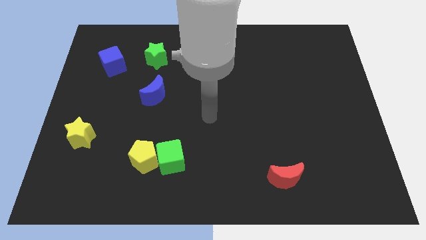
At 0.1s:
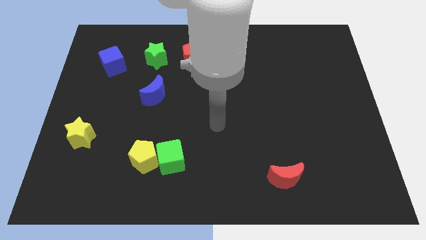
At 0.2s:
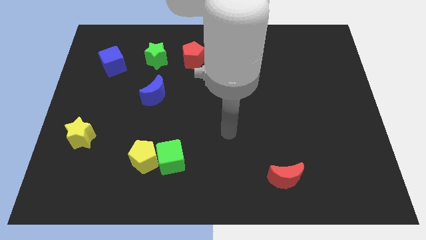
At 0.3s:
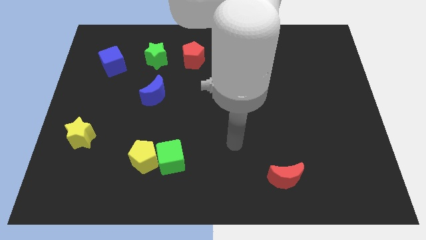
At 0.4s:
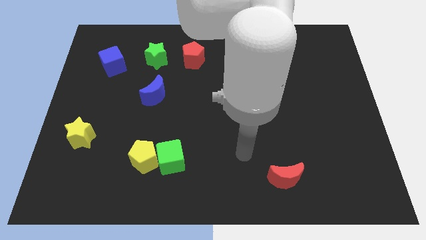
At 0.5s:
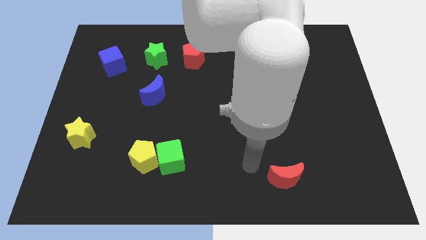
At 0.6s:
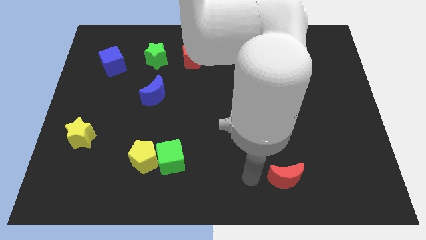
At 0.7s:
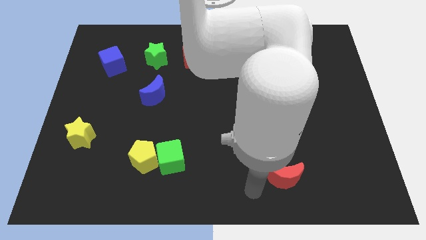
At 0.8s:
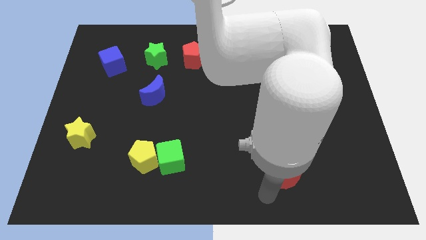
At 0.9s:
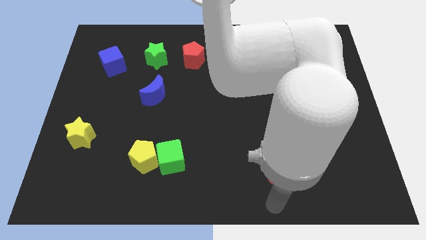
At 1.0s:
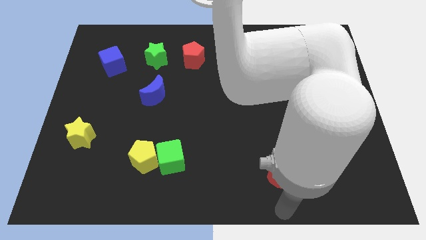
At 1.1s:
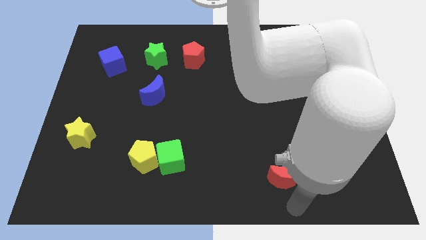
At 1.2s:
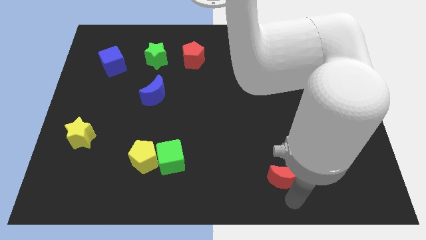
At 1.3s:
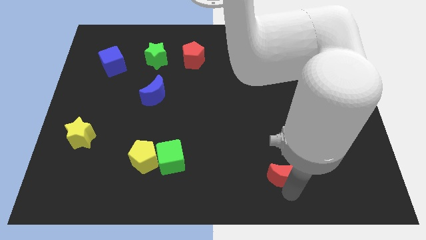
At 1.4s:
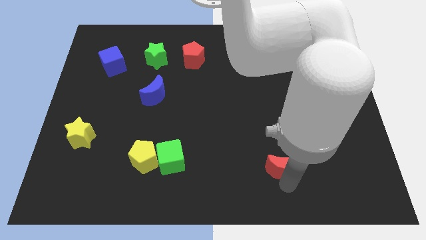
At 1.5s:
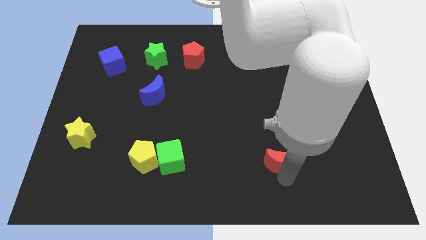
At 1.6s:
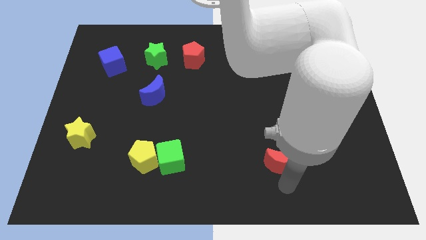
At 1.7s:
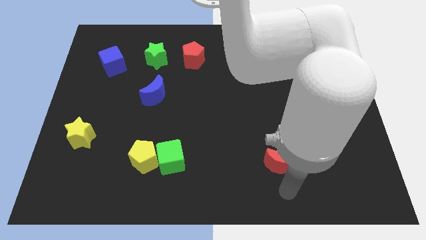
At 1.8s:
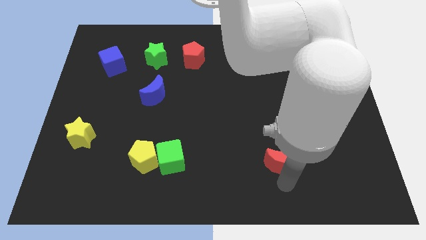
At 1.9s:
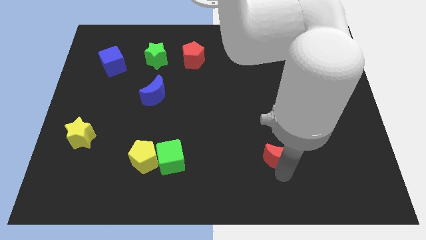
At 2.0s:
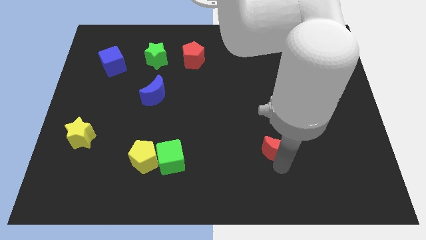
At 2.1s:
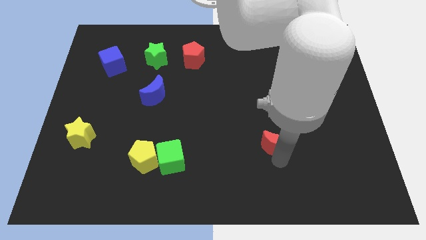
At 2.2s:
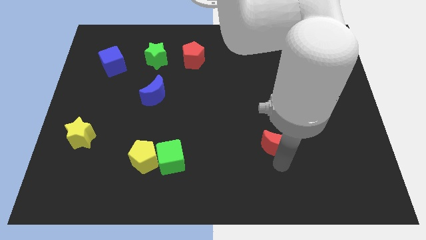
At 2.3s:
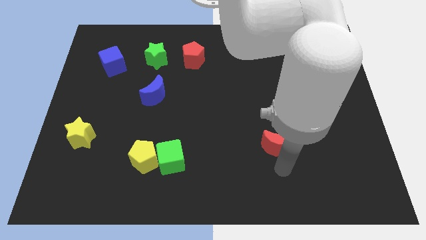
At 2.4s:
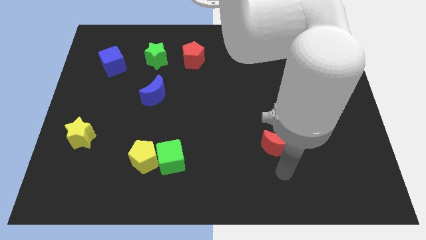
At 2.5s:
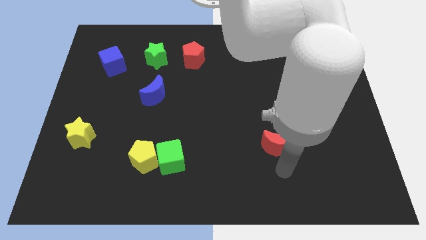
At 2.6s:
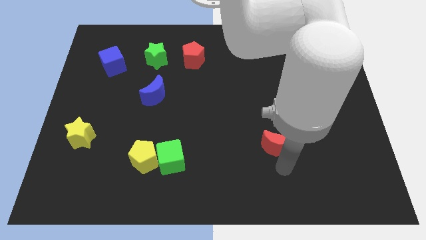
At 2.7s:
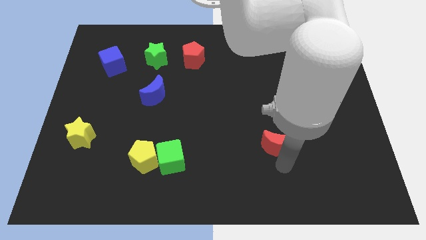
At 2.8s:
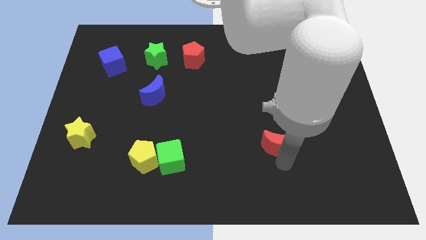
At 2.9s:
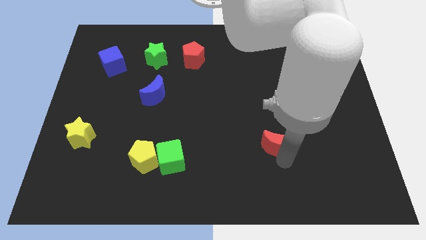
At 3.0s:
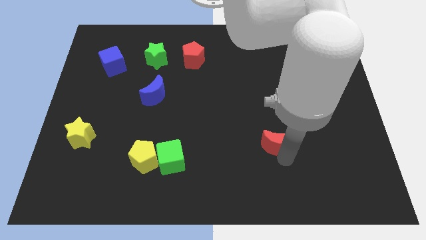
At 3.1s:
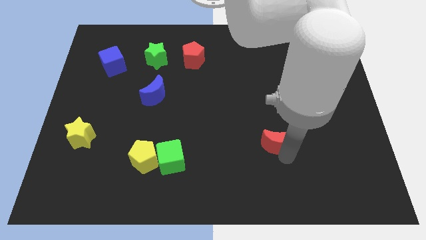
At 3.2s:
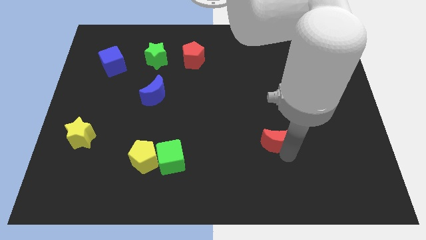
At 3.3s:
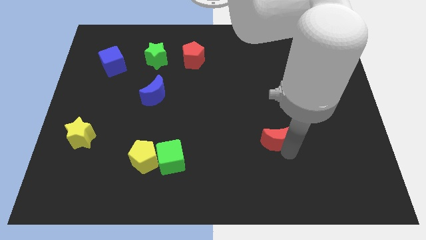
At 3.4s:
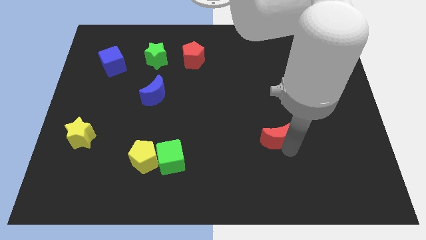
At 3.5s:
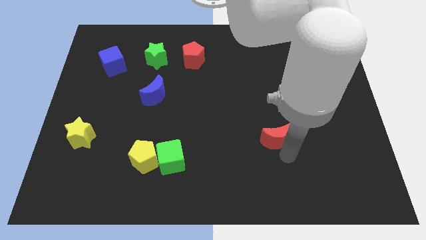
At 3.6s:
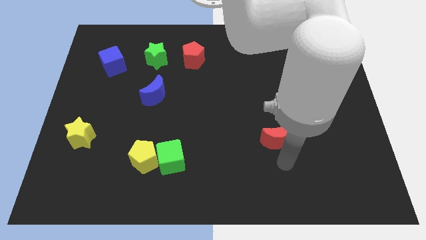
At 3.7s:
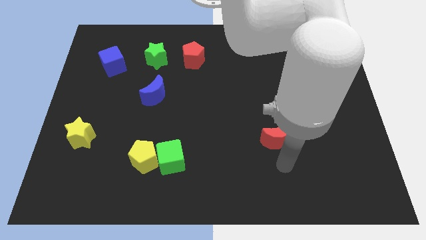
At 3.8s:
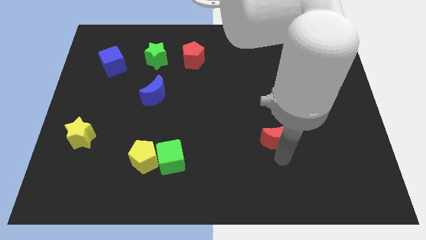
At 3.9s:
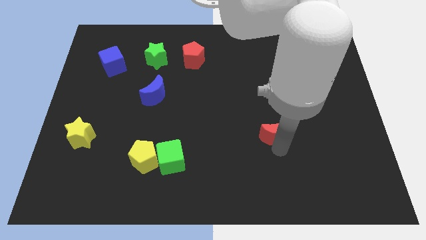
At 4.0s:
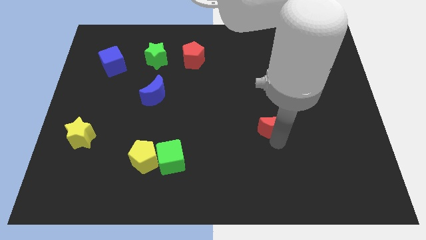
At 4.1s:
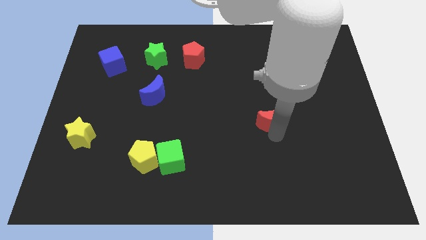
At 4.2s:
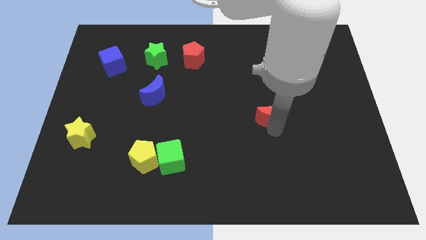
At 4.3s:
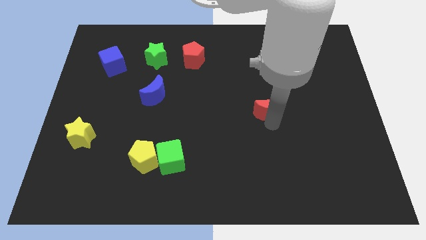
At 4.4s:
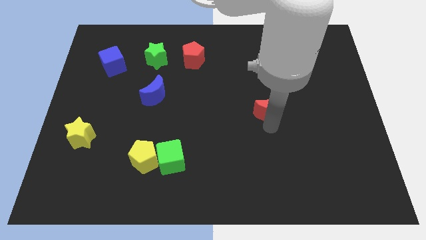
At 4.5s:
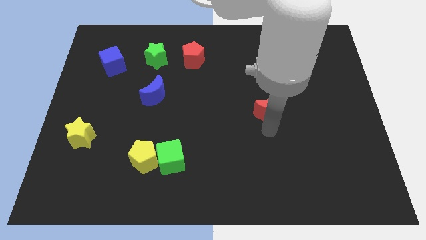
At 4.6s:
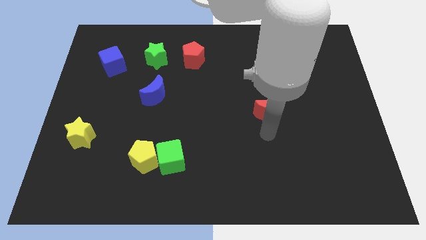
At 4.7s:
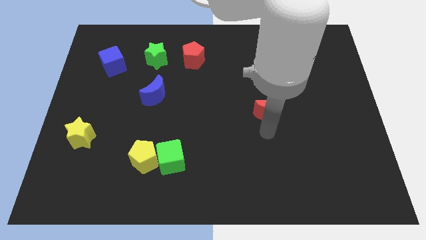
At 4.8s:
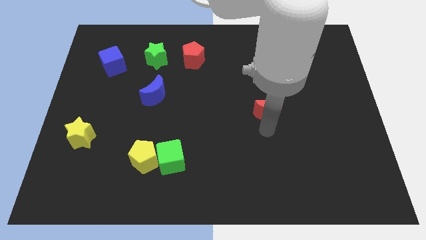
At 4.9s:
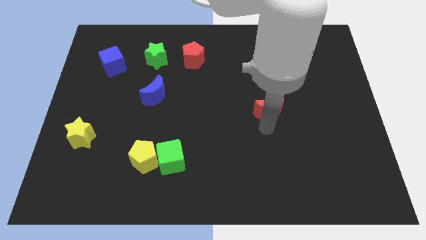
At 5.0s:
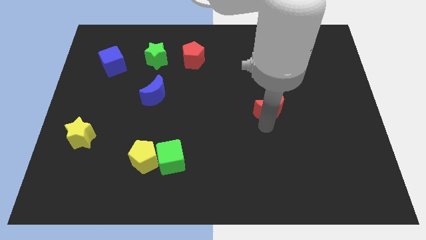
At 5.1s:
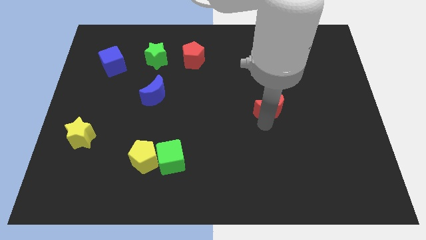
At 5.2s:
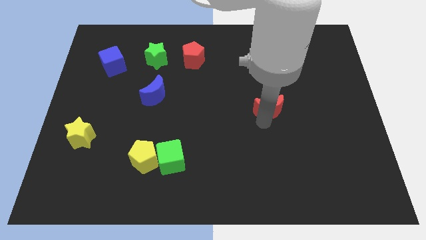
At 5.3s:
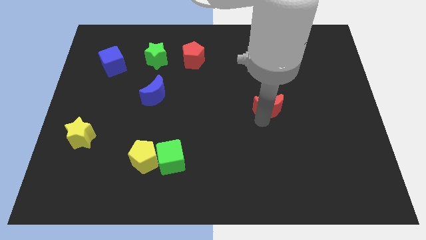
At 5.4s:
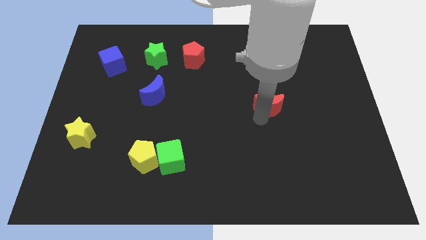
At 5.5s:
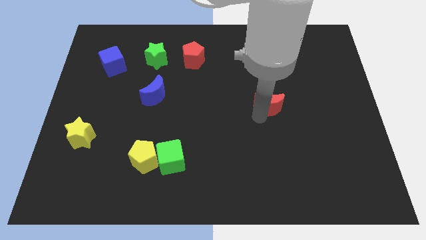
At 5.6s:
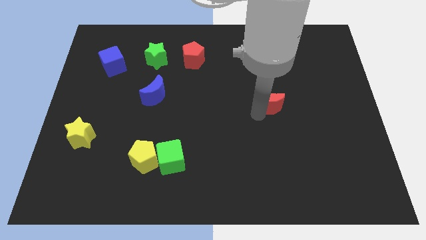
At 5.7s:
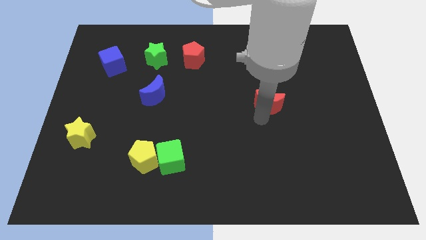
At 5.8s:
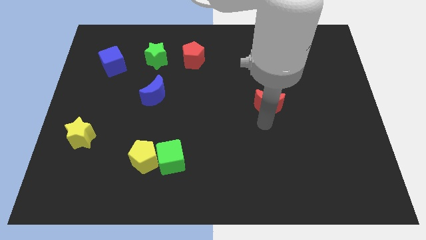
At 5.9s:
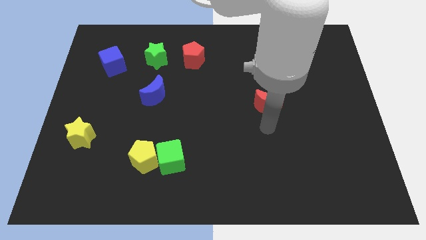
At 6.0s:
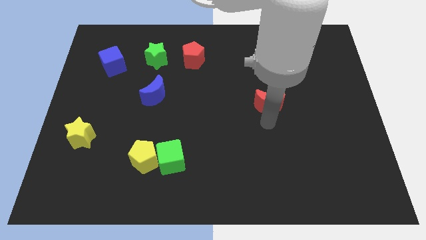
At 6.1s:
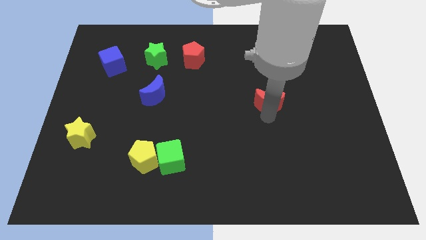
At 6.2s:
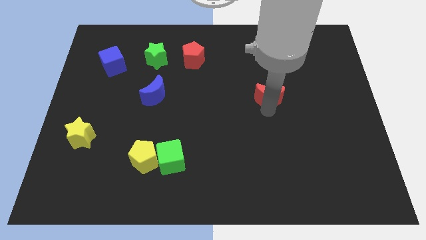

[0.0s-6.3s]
move the red moon up

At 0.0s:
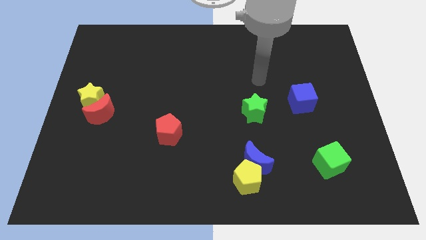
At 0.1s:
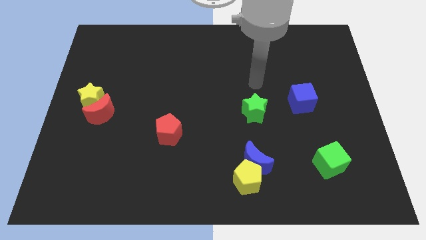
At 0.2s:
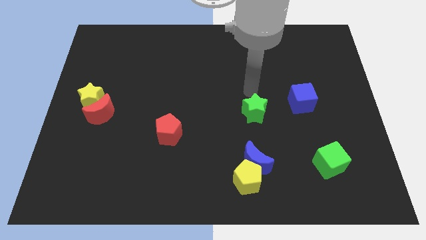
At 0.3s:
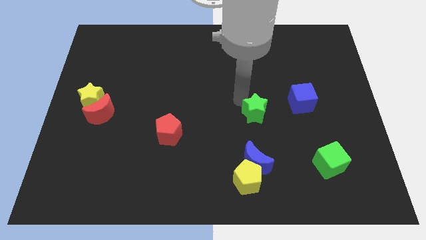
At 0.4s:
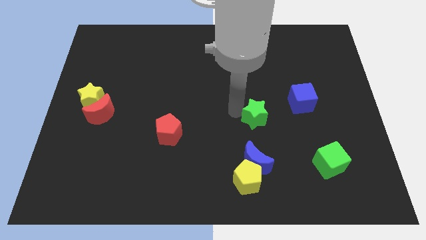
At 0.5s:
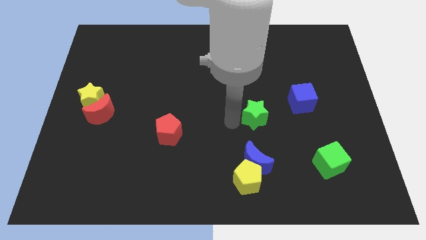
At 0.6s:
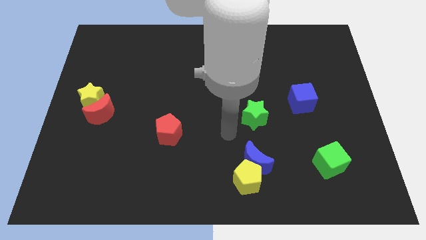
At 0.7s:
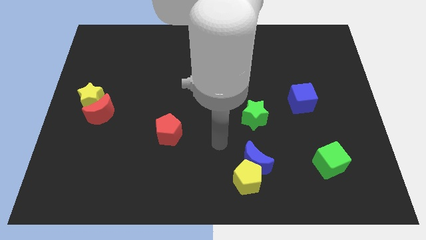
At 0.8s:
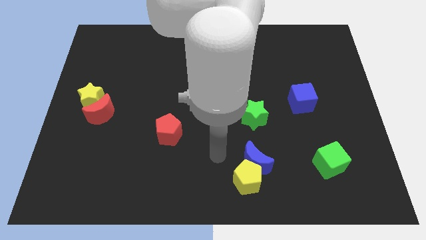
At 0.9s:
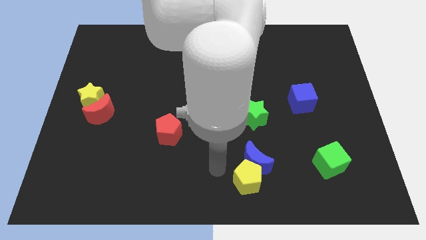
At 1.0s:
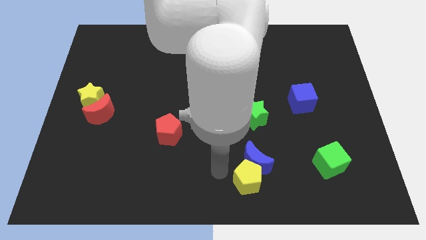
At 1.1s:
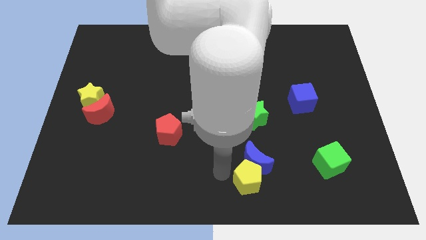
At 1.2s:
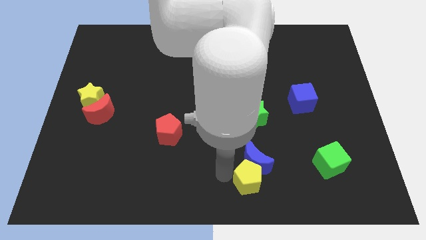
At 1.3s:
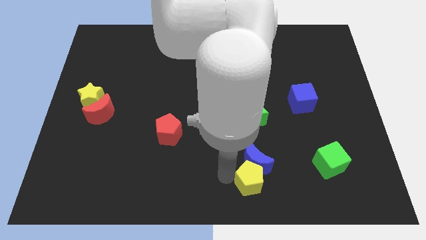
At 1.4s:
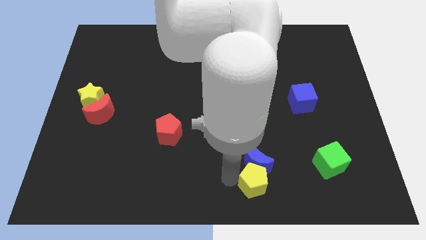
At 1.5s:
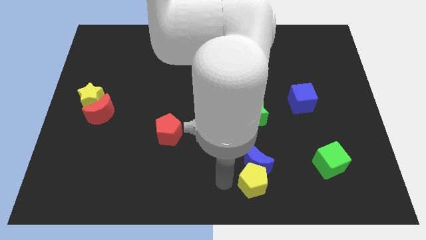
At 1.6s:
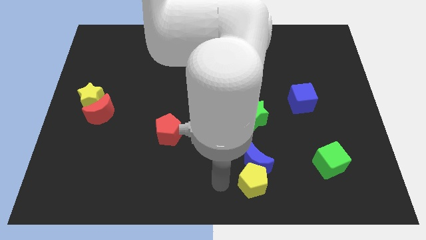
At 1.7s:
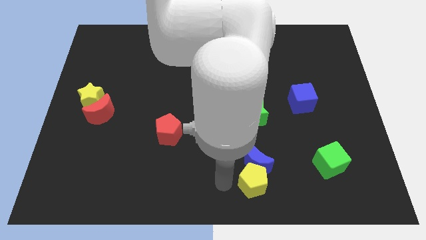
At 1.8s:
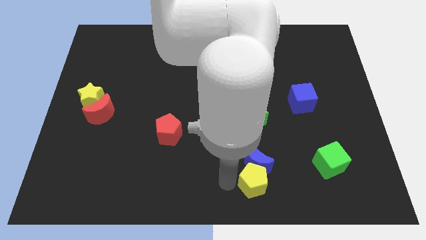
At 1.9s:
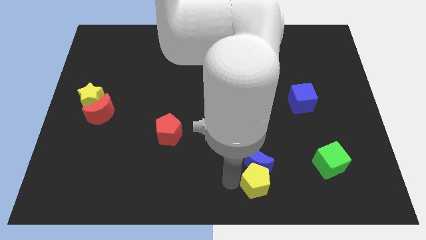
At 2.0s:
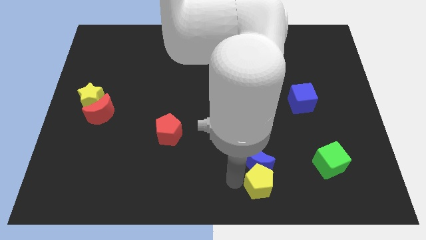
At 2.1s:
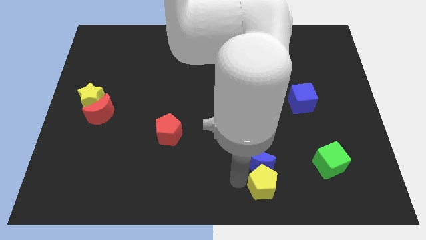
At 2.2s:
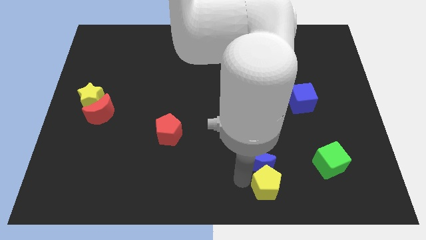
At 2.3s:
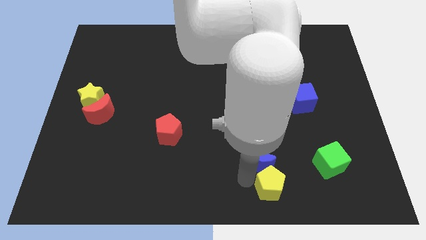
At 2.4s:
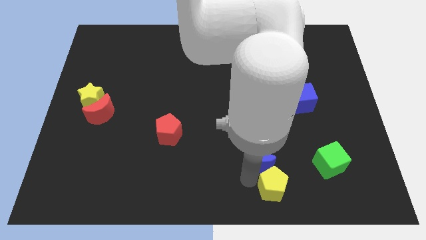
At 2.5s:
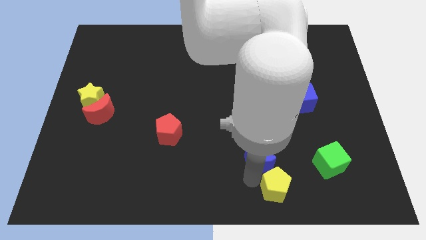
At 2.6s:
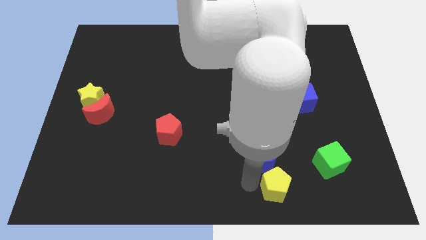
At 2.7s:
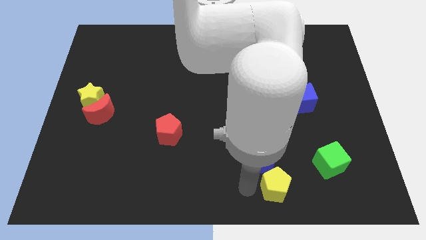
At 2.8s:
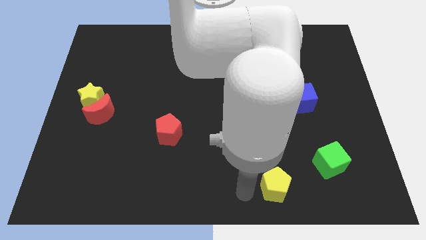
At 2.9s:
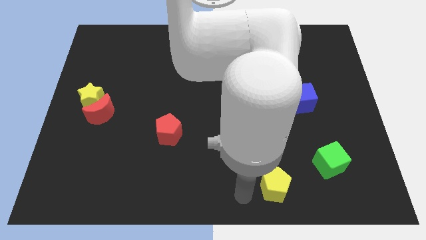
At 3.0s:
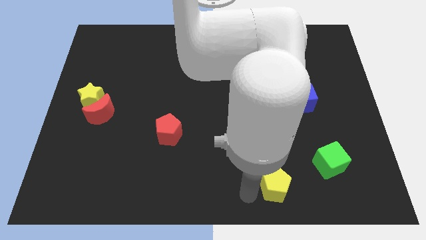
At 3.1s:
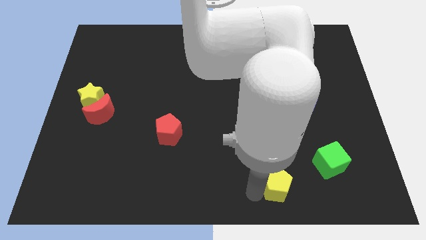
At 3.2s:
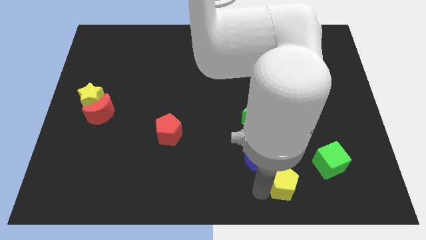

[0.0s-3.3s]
slightly push the yellow pentagon to the right
